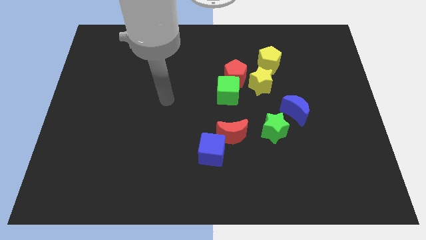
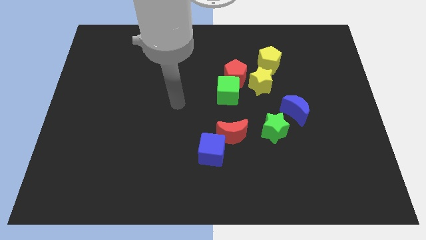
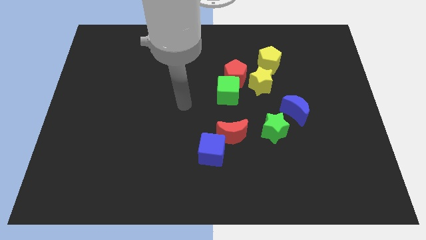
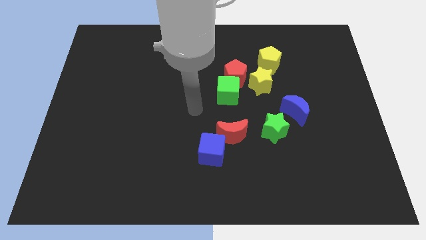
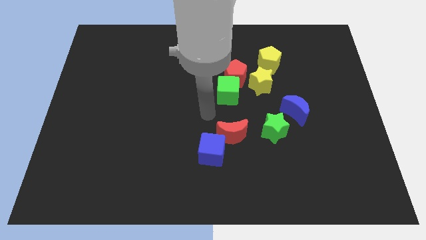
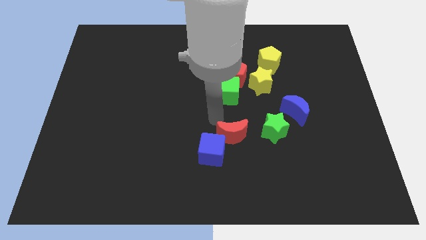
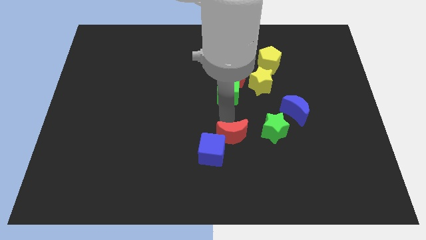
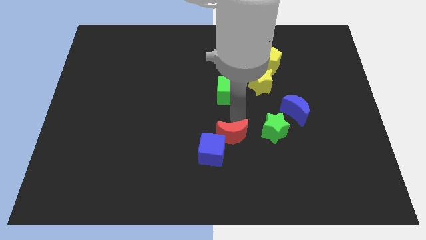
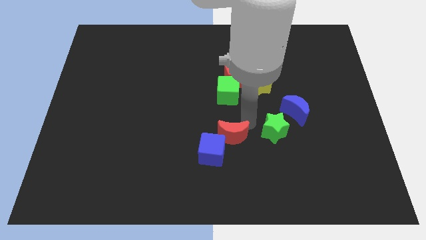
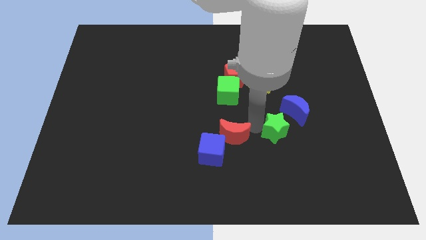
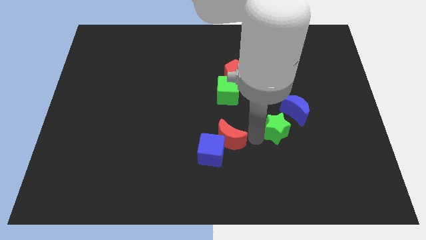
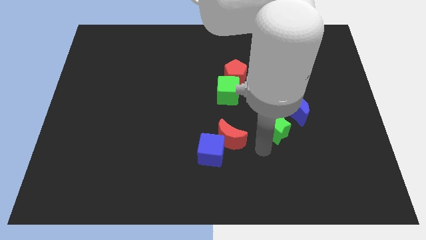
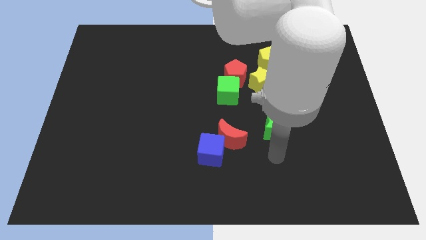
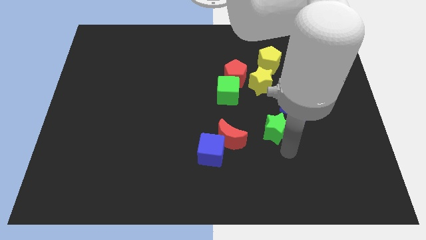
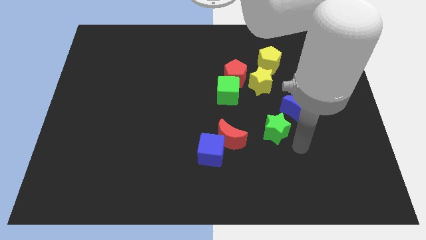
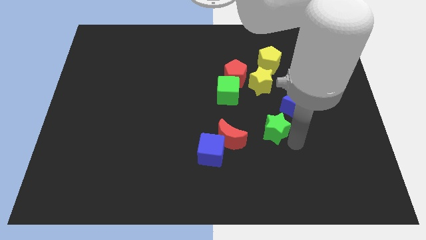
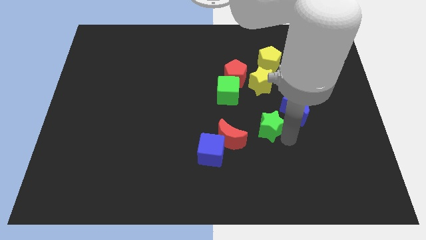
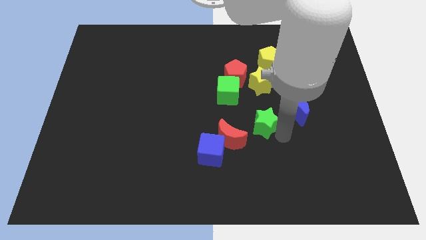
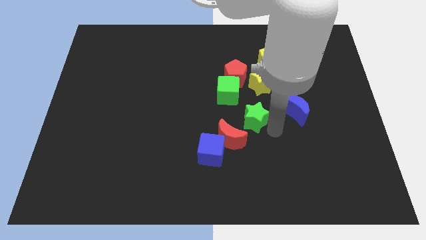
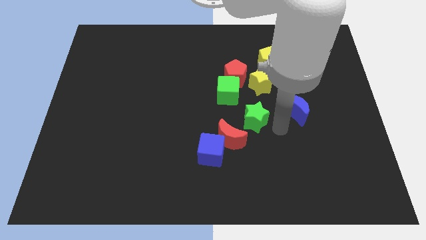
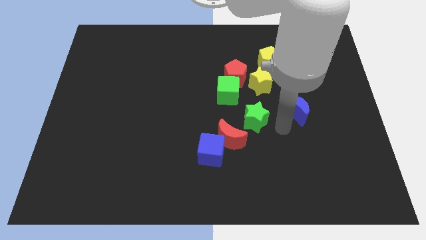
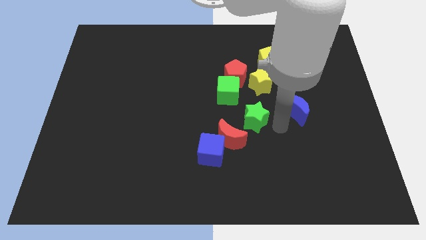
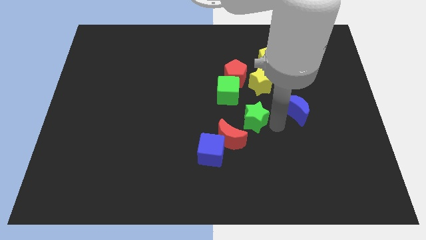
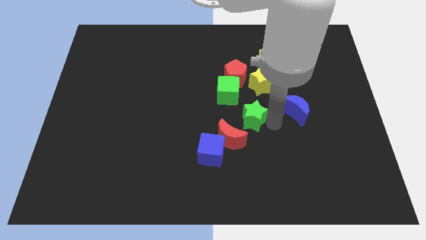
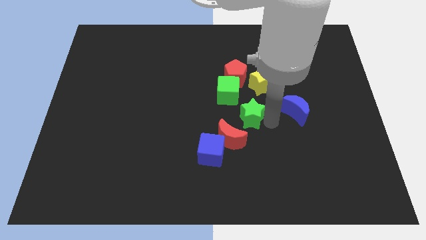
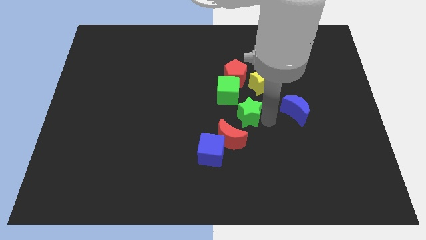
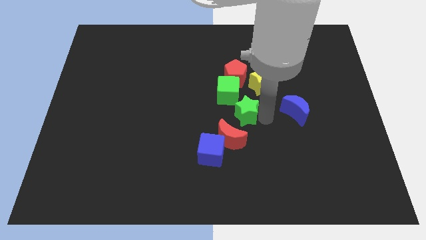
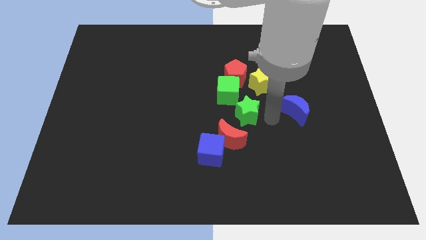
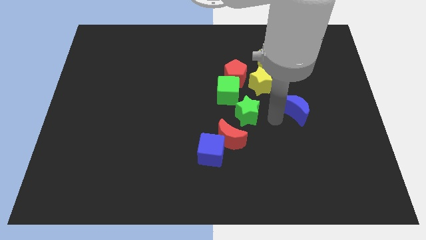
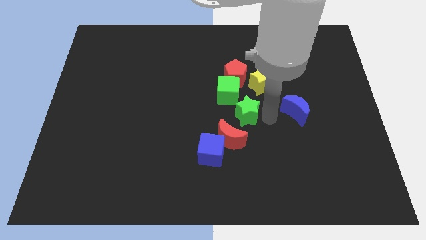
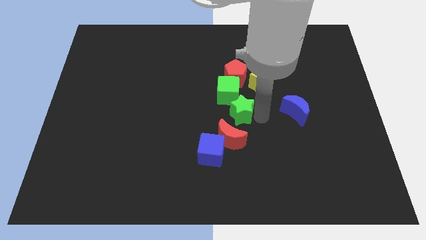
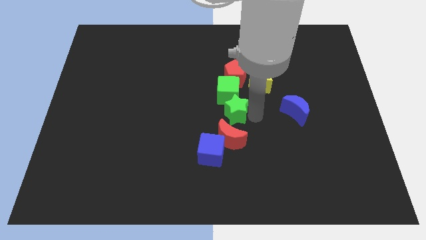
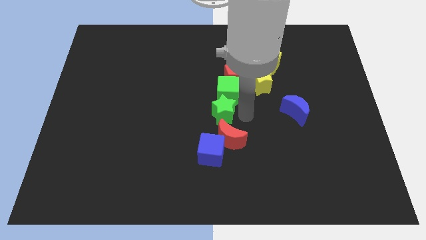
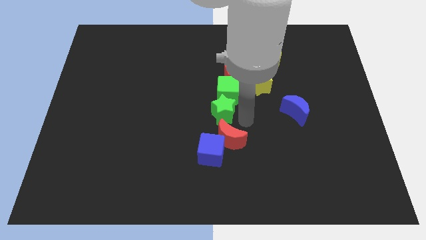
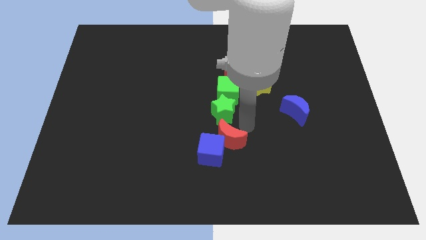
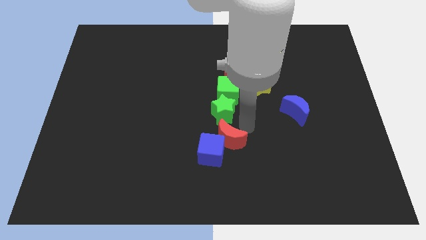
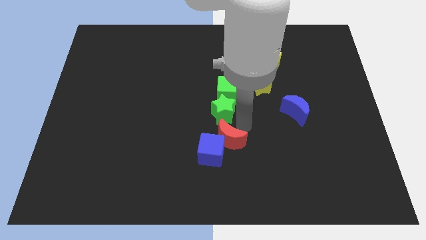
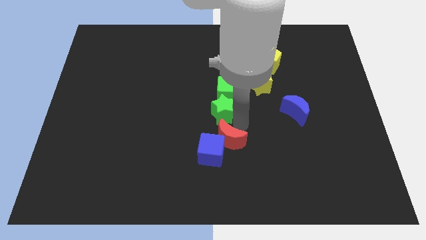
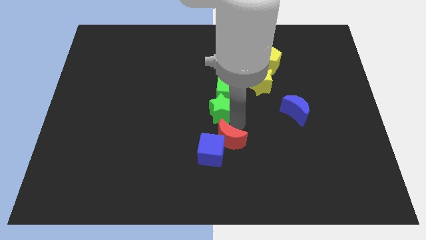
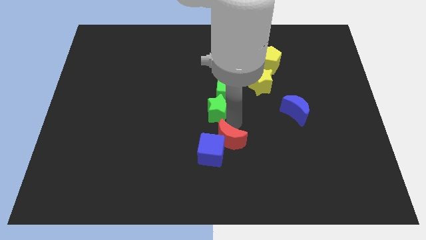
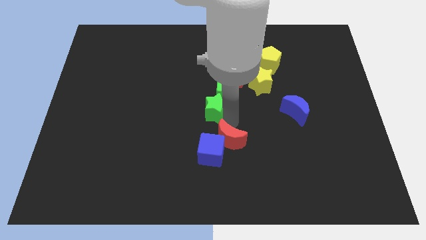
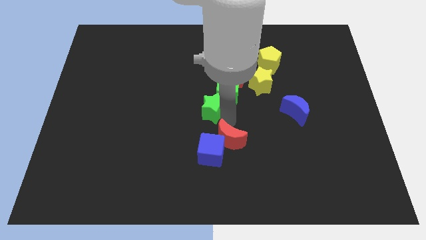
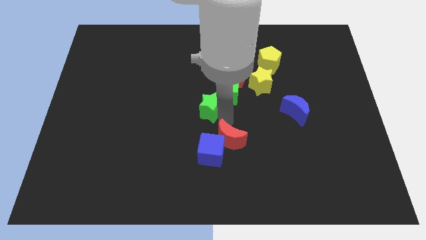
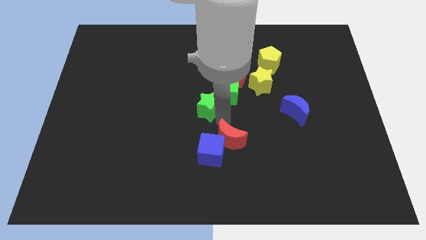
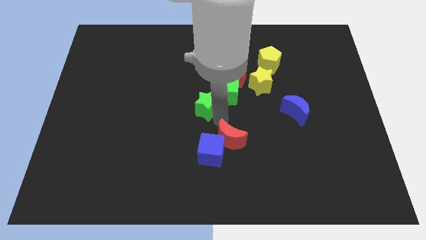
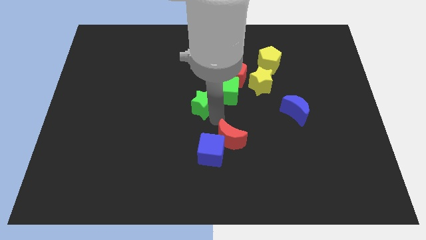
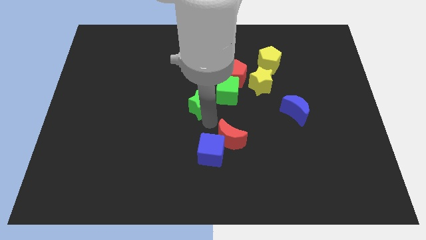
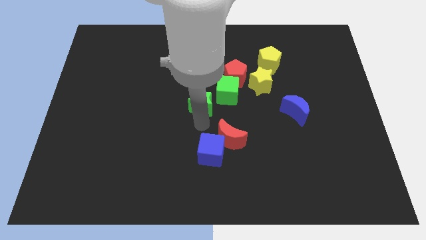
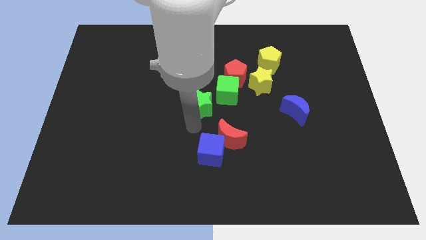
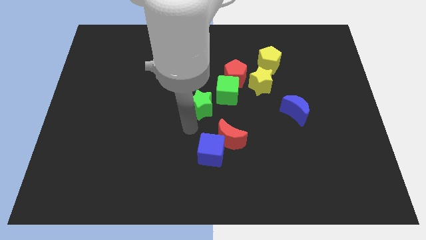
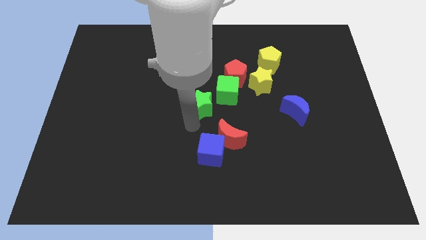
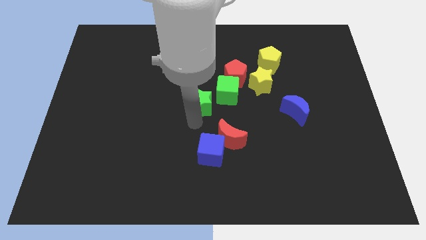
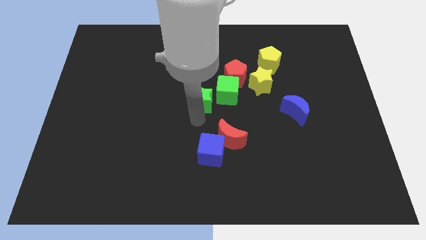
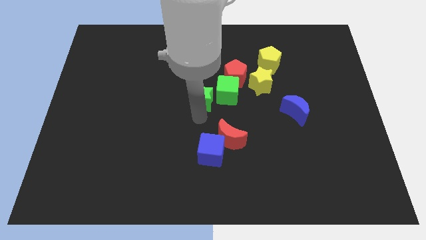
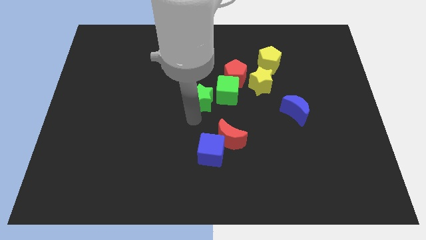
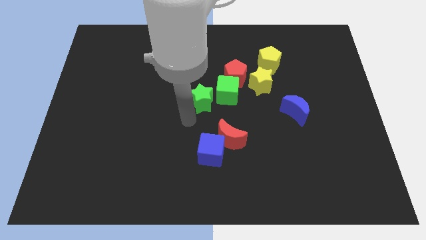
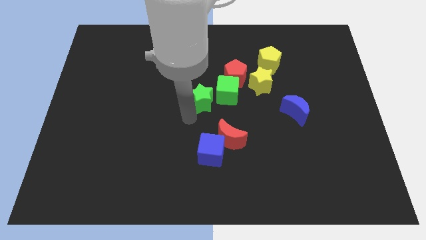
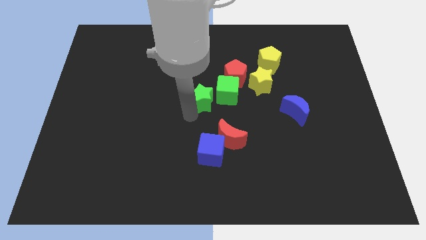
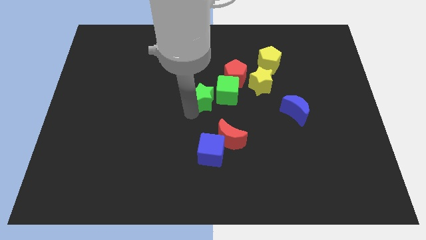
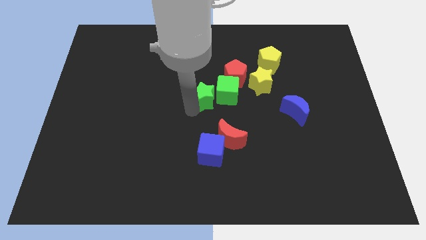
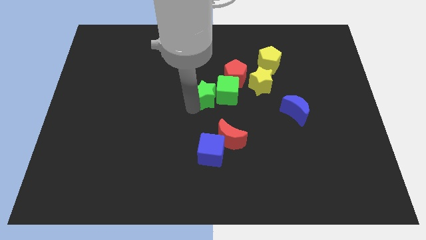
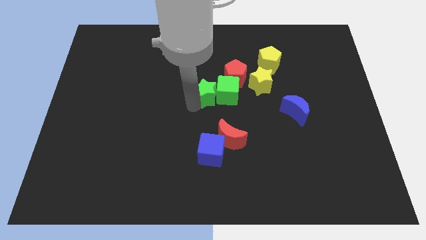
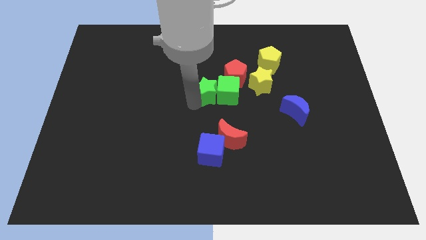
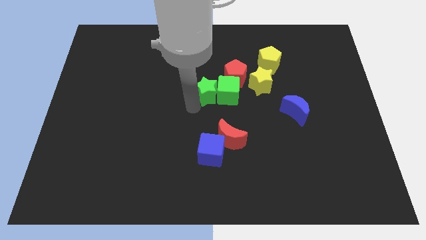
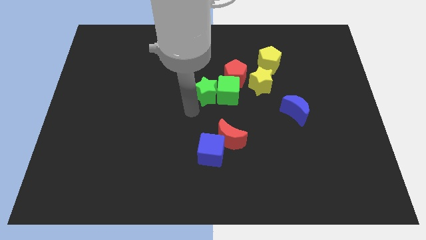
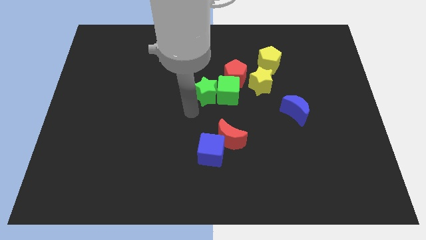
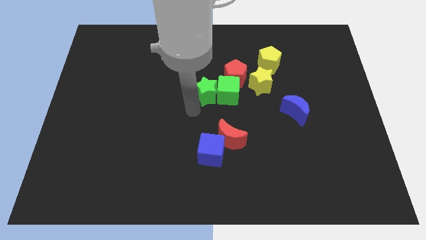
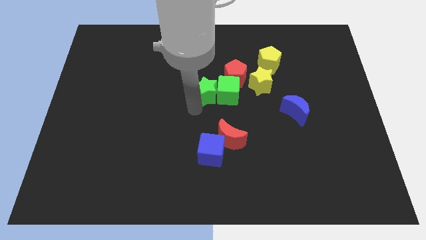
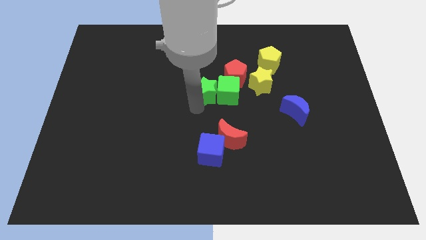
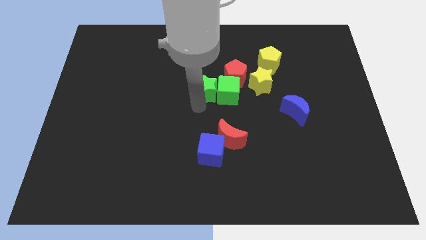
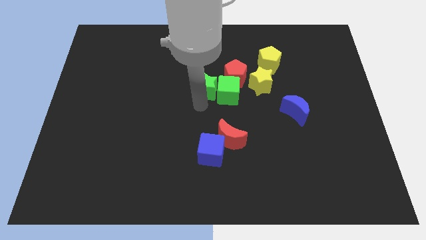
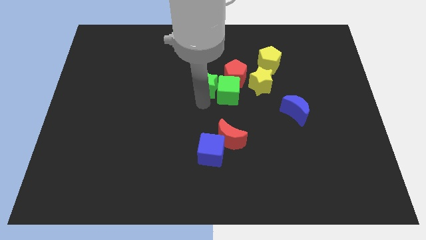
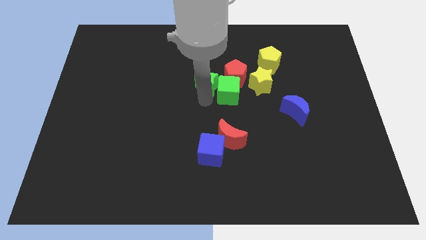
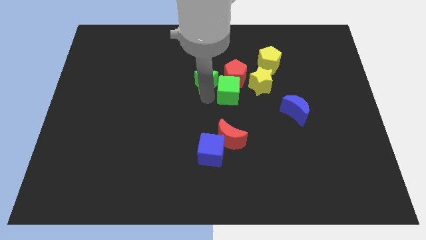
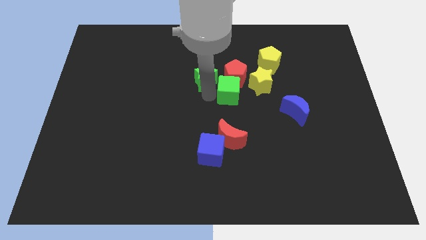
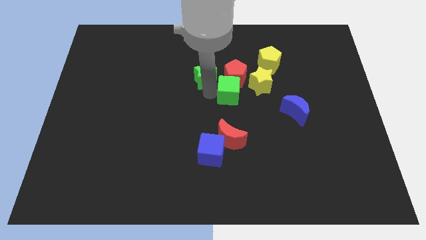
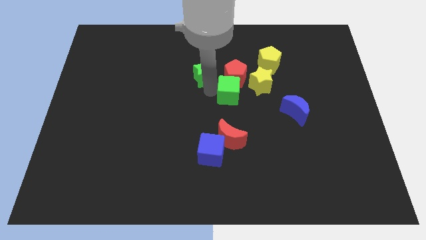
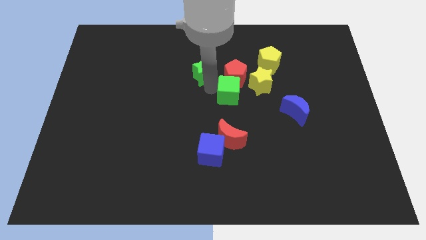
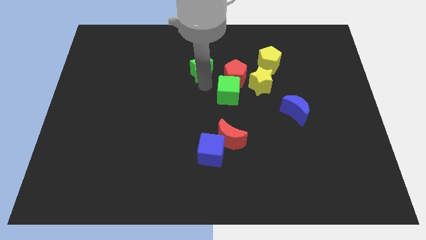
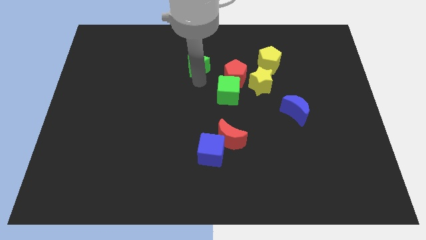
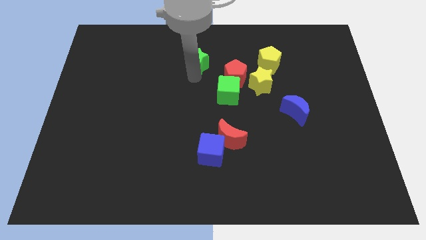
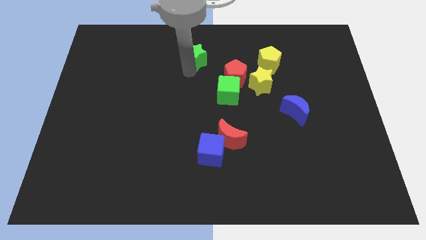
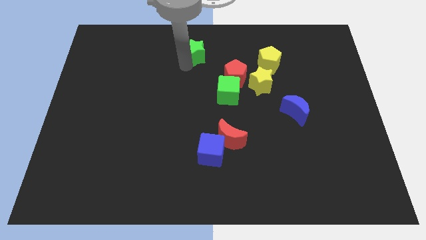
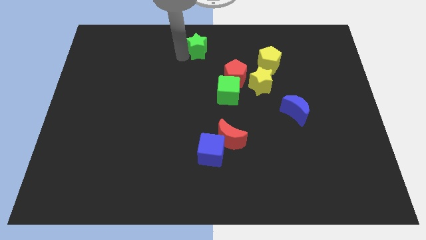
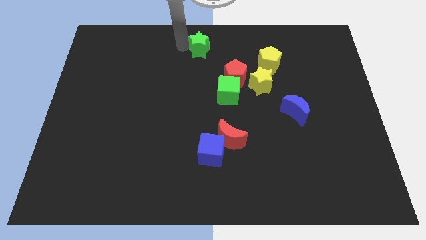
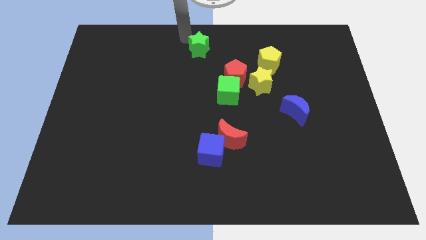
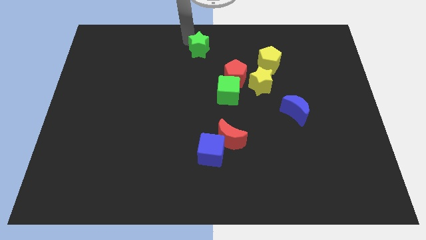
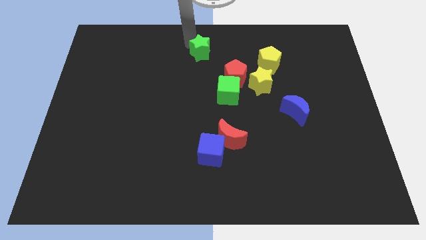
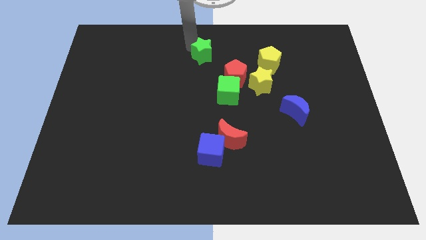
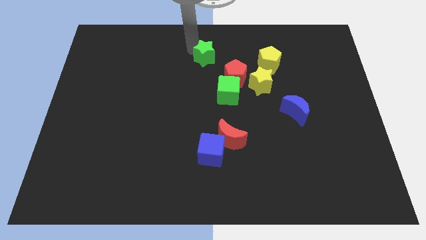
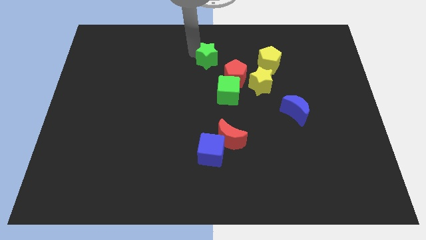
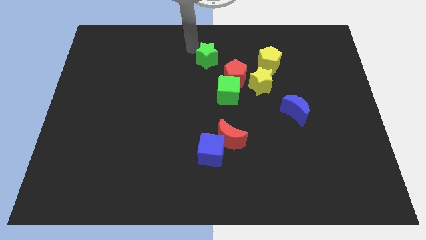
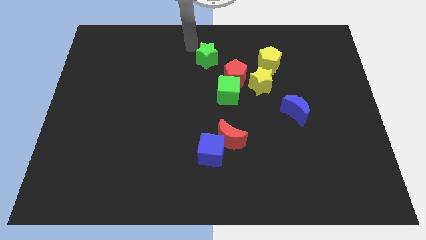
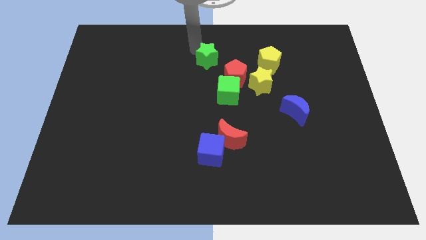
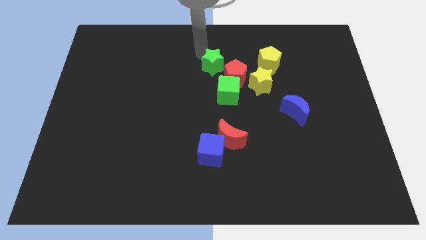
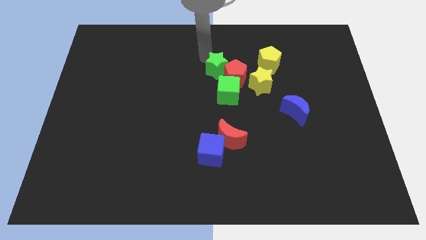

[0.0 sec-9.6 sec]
put the green star towards the red pentagon
